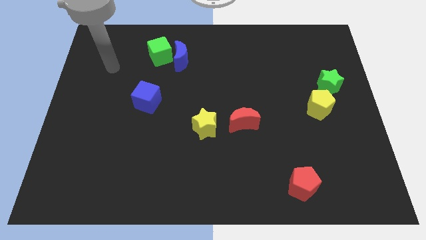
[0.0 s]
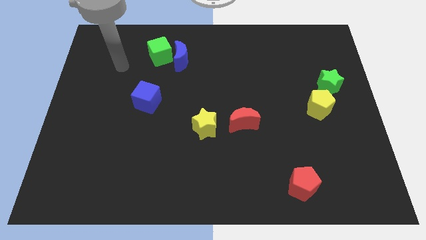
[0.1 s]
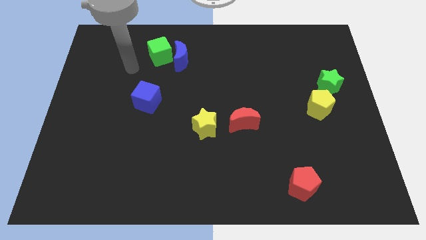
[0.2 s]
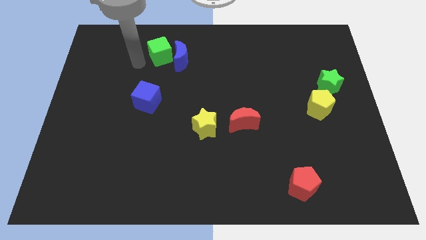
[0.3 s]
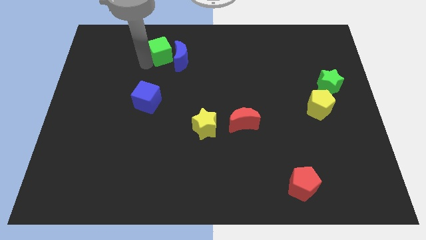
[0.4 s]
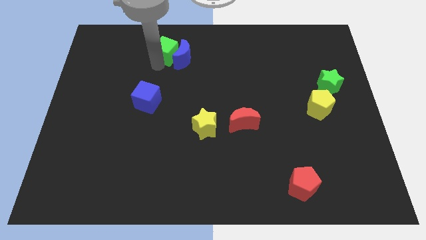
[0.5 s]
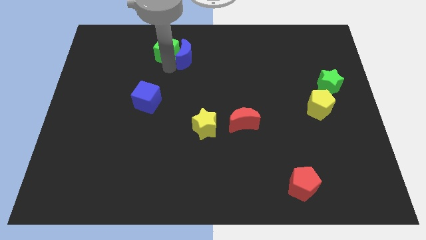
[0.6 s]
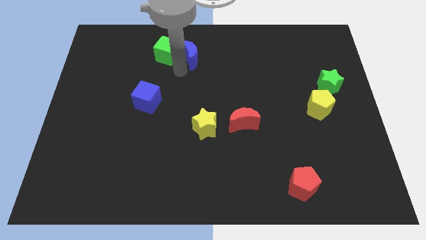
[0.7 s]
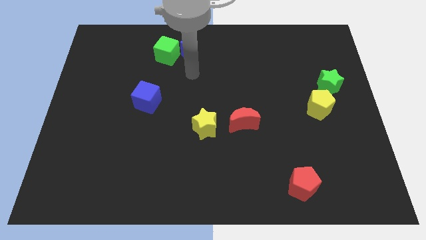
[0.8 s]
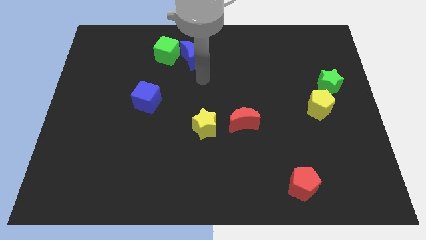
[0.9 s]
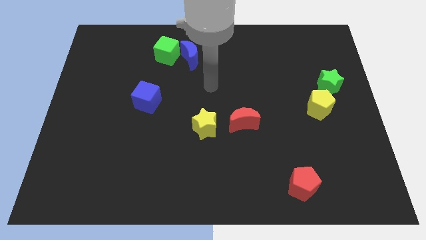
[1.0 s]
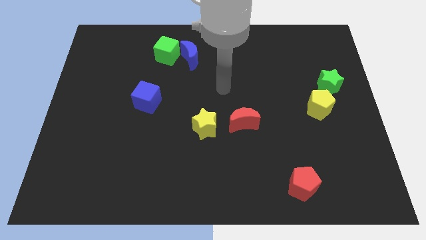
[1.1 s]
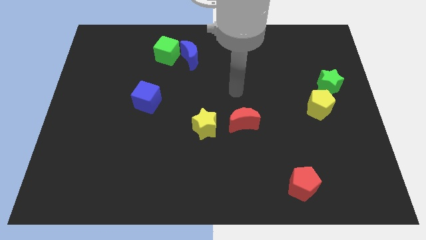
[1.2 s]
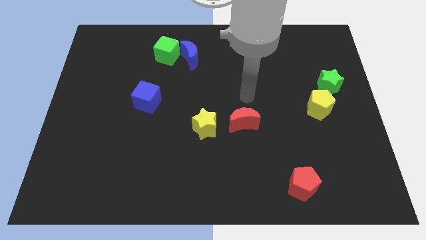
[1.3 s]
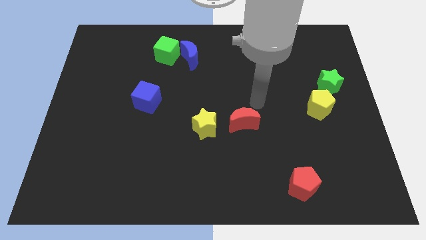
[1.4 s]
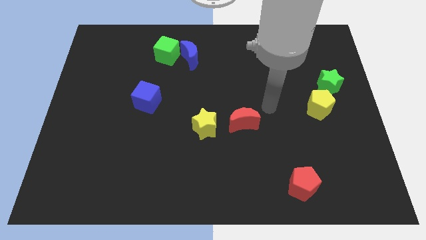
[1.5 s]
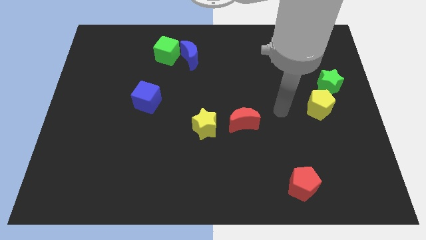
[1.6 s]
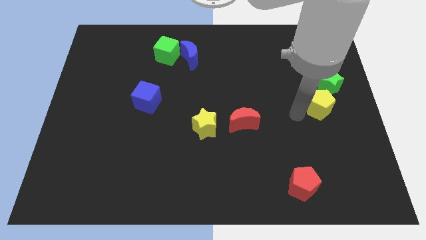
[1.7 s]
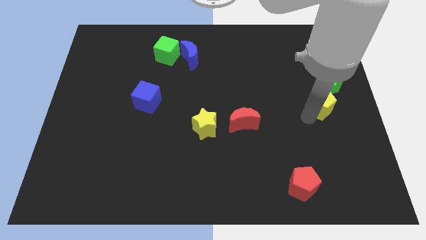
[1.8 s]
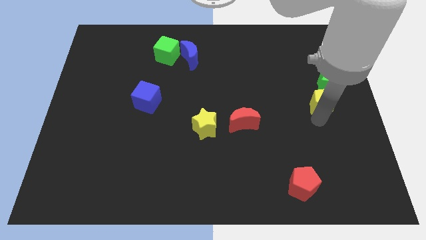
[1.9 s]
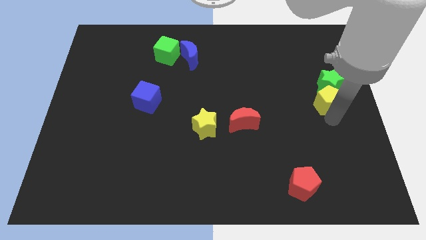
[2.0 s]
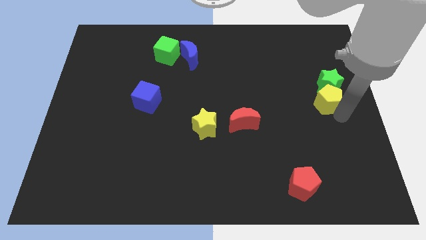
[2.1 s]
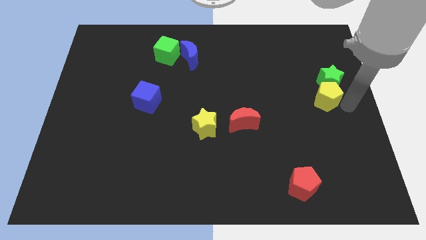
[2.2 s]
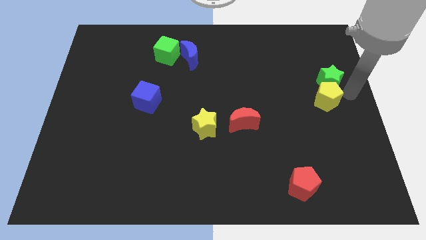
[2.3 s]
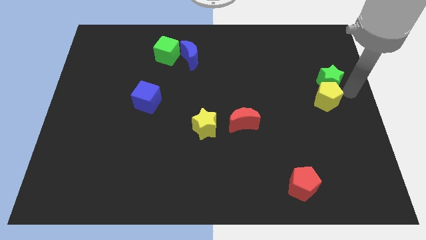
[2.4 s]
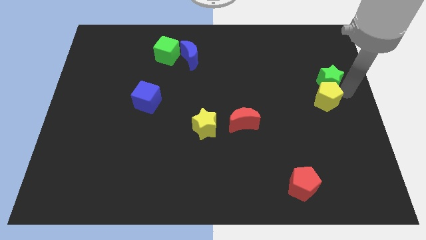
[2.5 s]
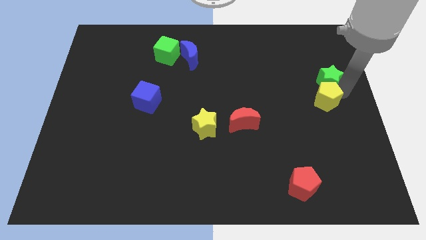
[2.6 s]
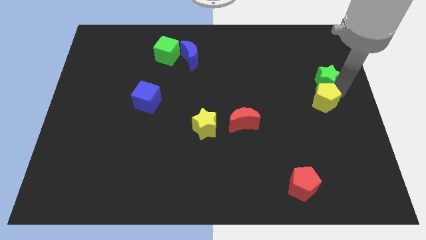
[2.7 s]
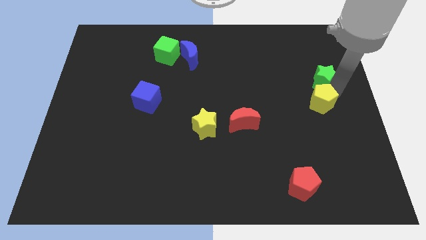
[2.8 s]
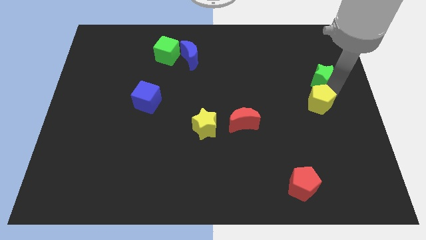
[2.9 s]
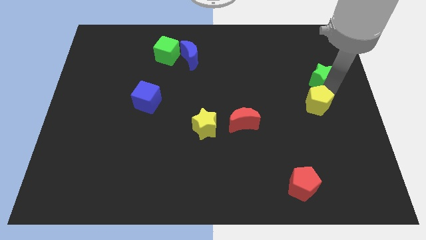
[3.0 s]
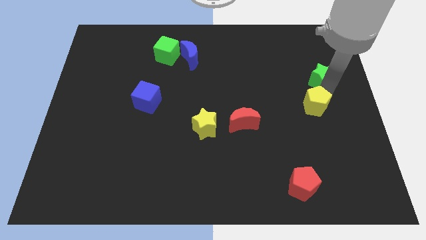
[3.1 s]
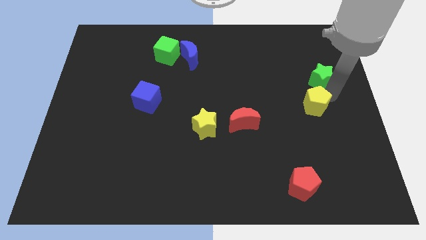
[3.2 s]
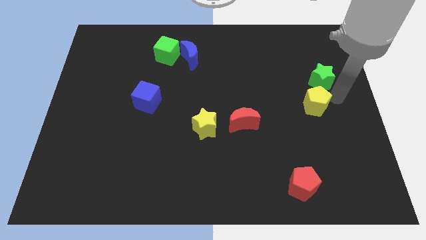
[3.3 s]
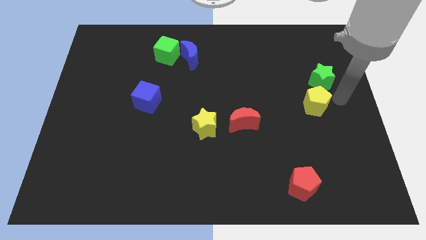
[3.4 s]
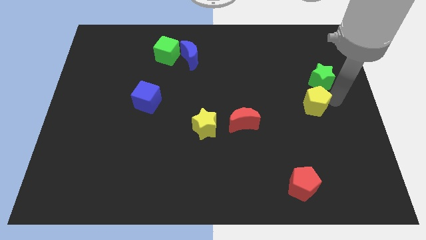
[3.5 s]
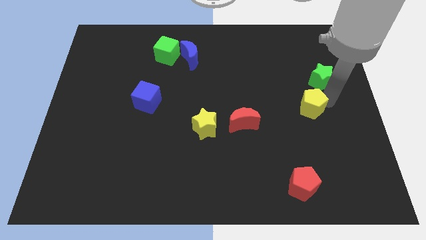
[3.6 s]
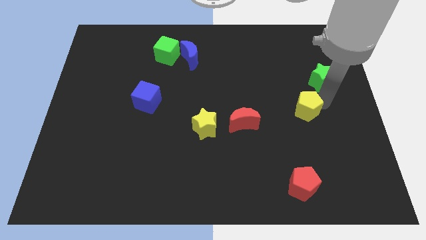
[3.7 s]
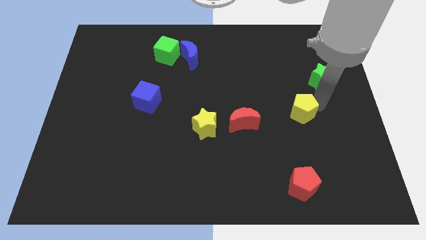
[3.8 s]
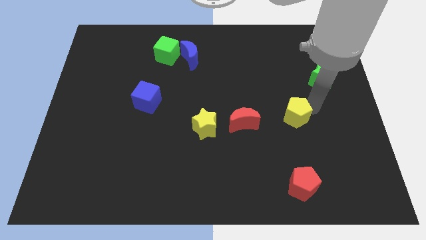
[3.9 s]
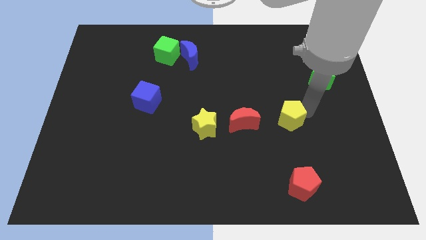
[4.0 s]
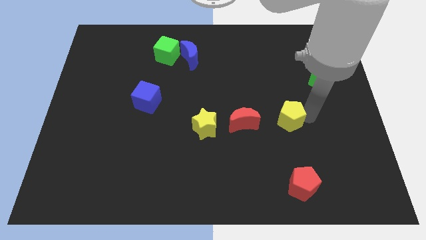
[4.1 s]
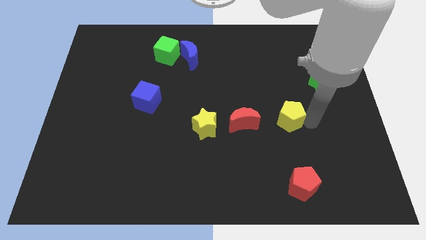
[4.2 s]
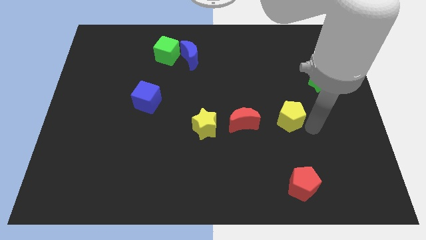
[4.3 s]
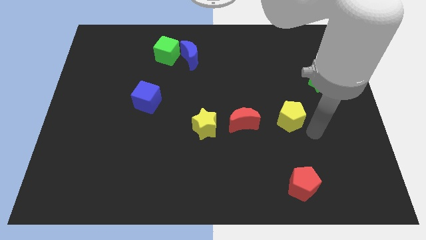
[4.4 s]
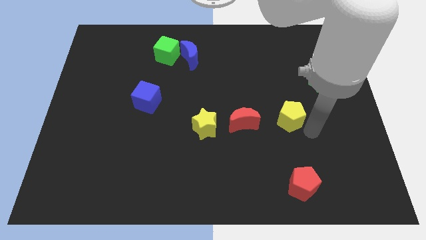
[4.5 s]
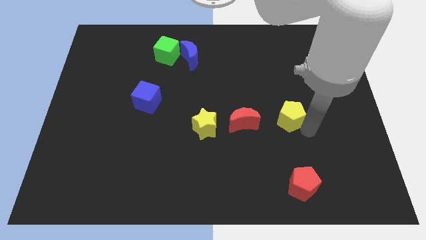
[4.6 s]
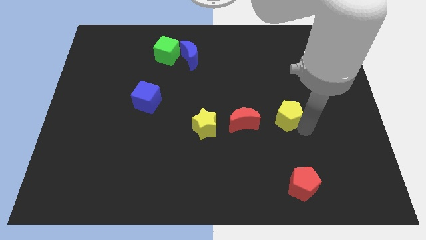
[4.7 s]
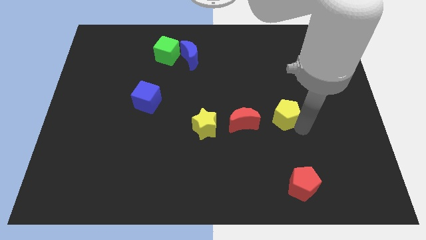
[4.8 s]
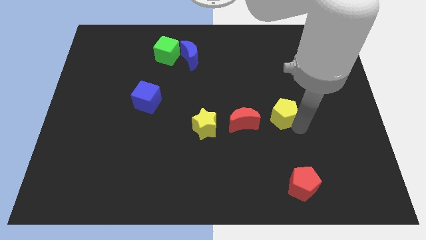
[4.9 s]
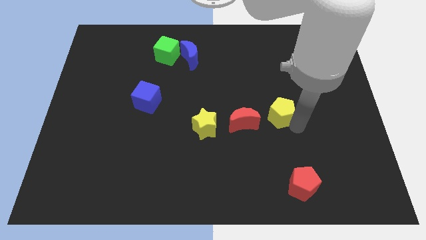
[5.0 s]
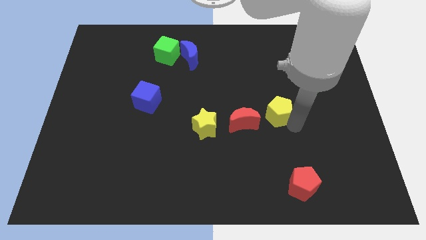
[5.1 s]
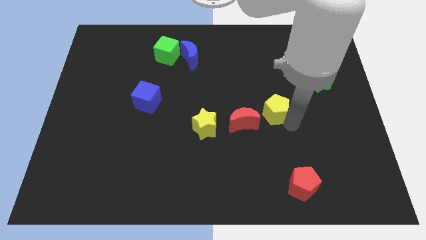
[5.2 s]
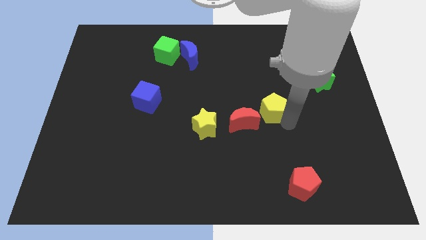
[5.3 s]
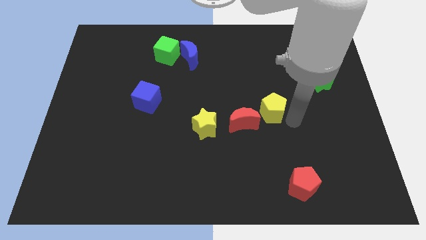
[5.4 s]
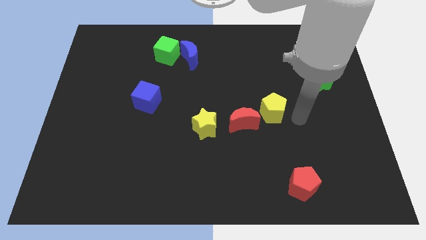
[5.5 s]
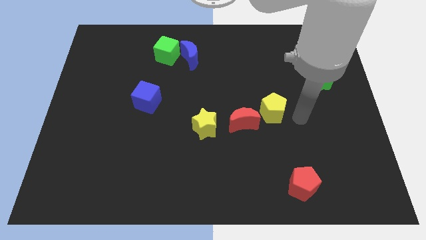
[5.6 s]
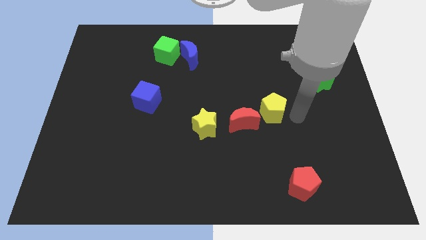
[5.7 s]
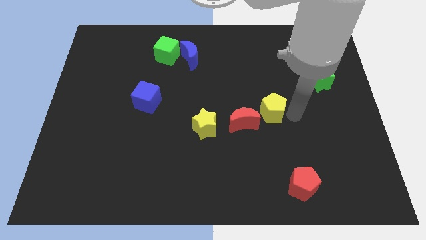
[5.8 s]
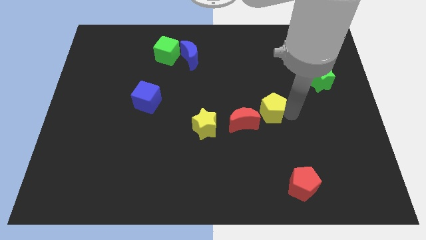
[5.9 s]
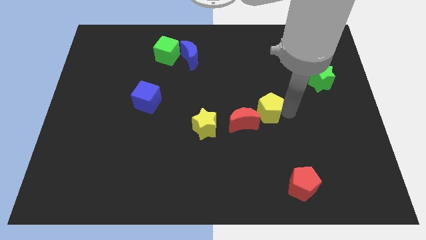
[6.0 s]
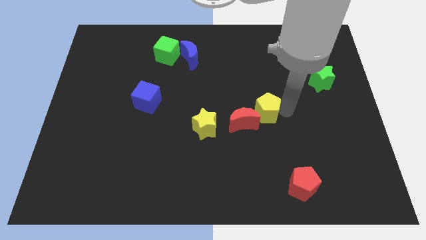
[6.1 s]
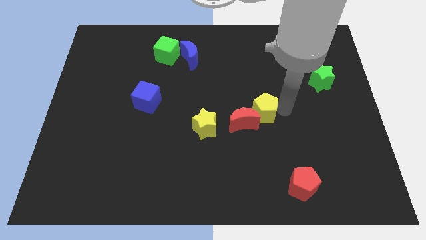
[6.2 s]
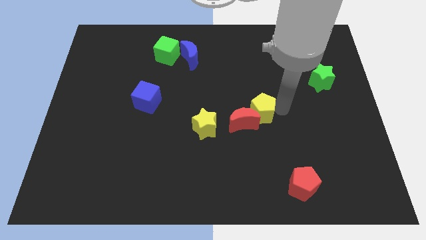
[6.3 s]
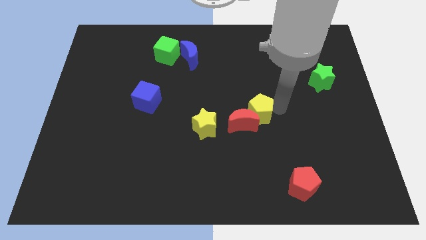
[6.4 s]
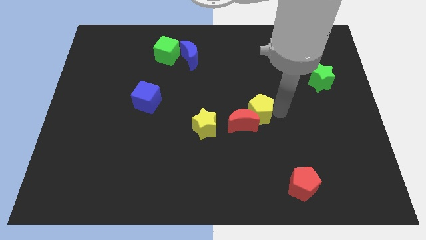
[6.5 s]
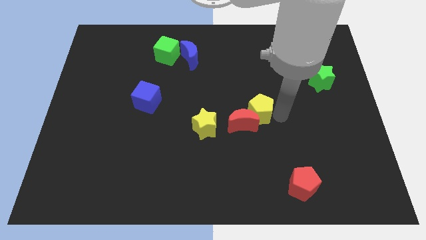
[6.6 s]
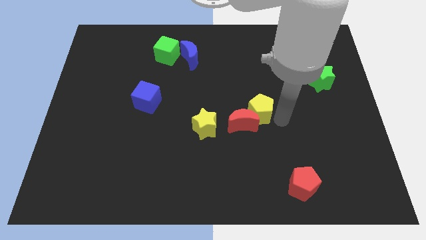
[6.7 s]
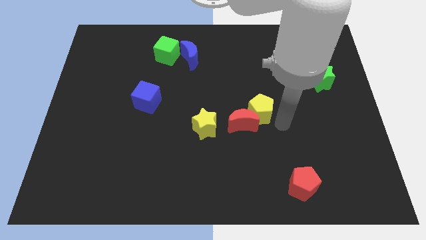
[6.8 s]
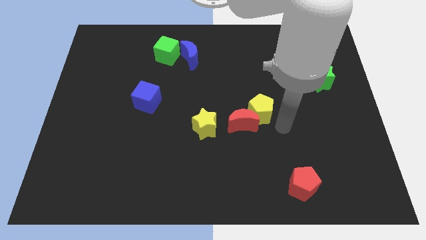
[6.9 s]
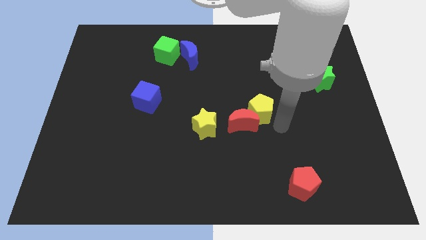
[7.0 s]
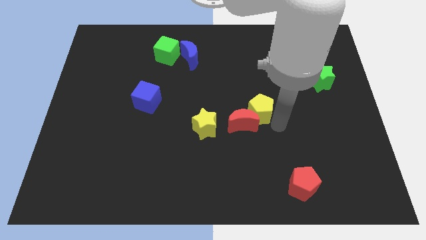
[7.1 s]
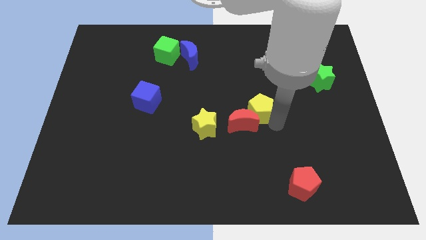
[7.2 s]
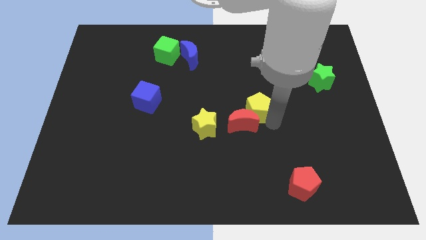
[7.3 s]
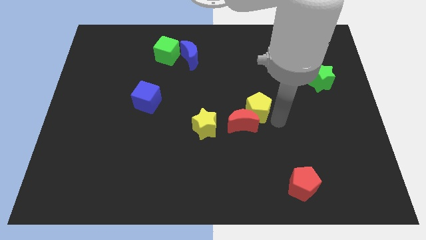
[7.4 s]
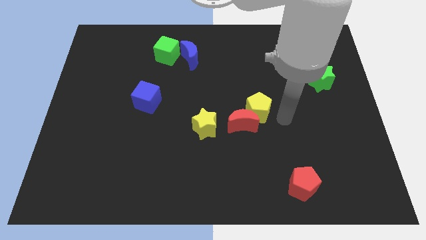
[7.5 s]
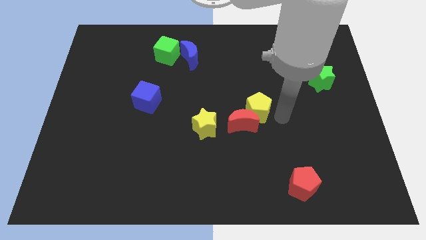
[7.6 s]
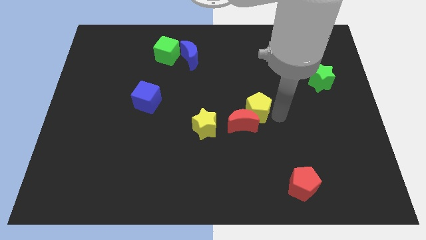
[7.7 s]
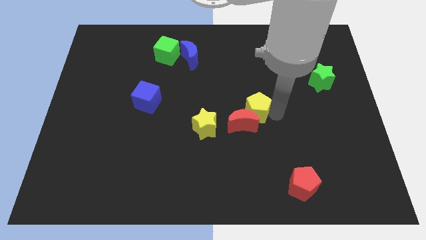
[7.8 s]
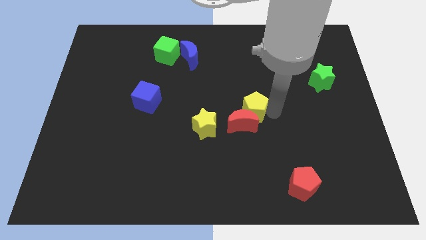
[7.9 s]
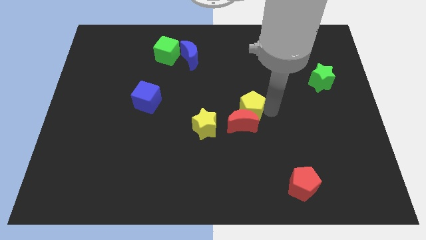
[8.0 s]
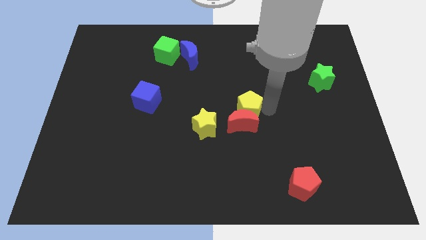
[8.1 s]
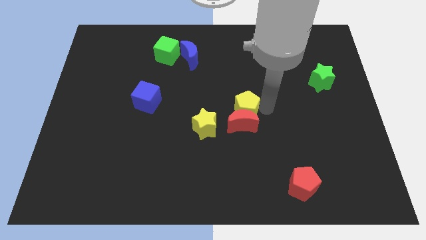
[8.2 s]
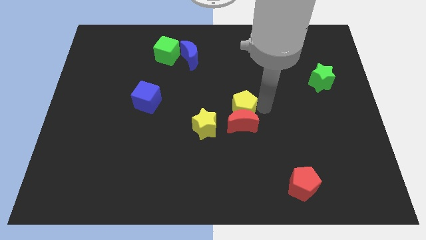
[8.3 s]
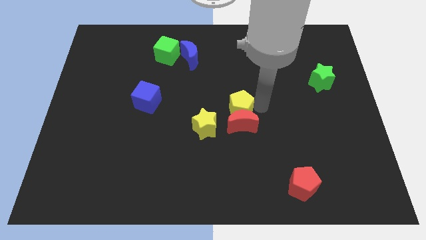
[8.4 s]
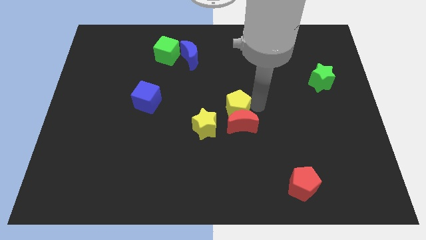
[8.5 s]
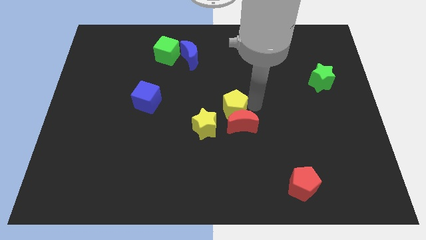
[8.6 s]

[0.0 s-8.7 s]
push the yellow pentagon to the left
